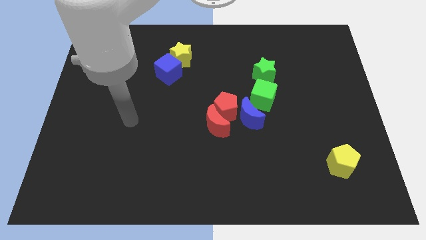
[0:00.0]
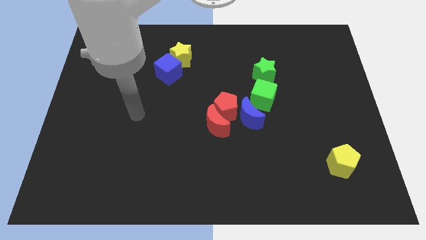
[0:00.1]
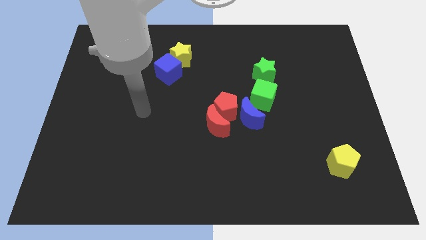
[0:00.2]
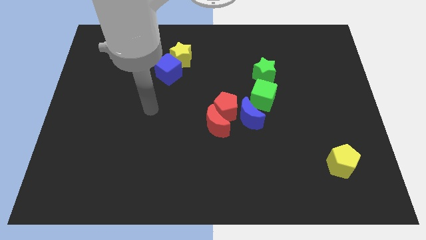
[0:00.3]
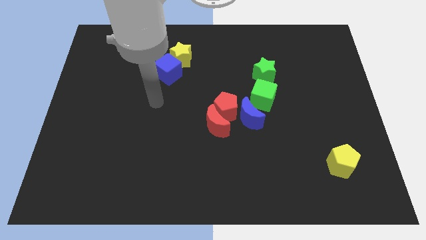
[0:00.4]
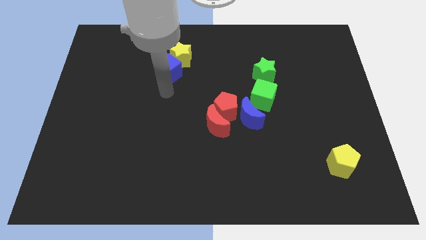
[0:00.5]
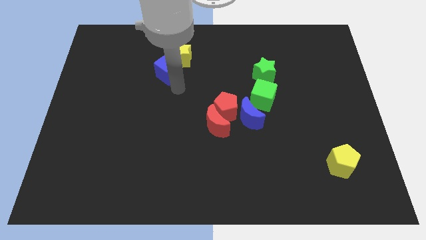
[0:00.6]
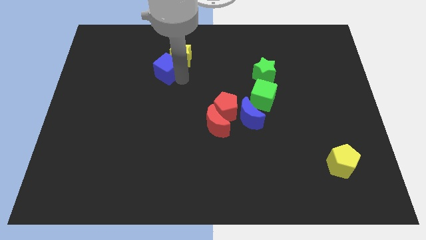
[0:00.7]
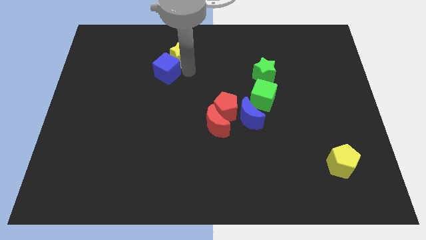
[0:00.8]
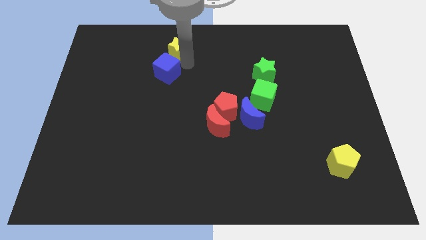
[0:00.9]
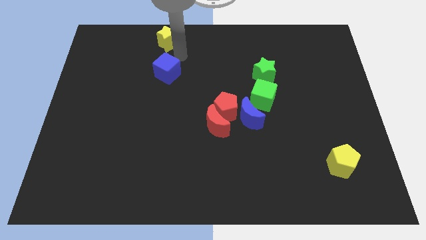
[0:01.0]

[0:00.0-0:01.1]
pull the blue cube apart from the yellow star

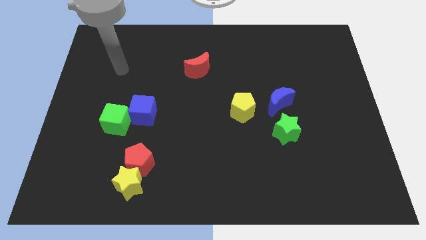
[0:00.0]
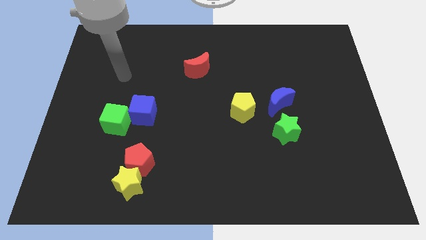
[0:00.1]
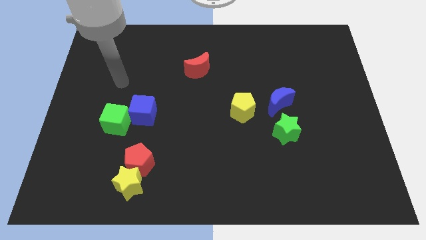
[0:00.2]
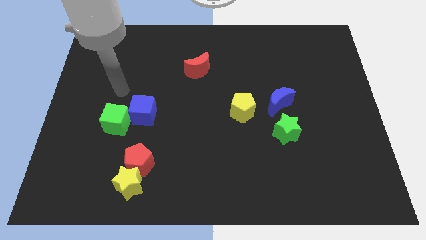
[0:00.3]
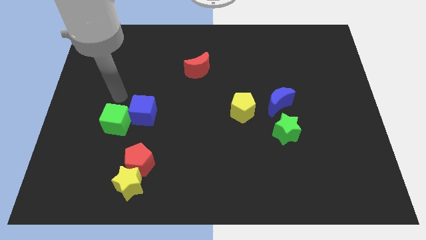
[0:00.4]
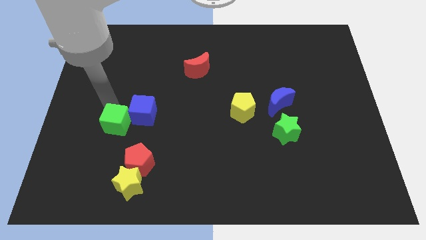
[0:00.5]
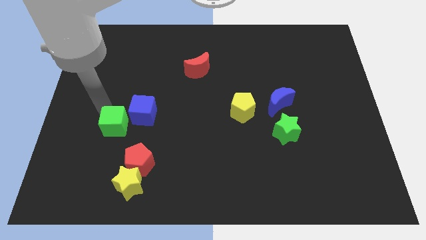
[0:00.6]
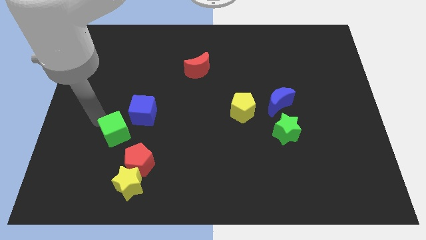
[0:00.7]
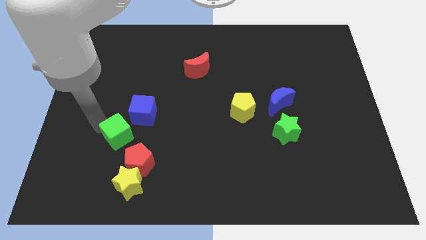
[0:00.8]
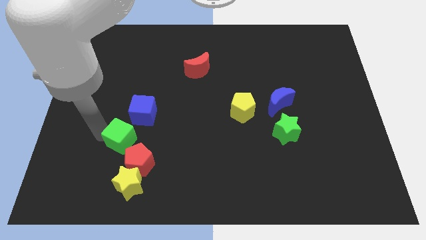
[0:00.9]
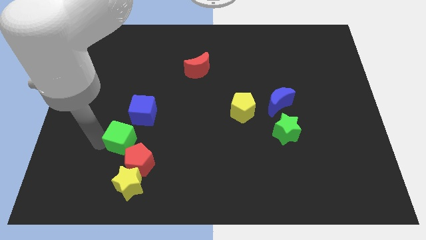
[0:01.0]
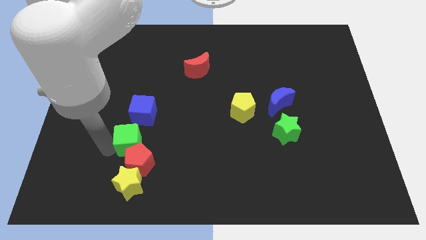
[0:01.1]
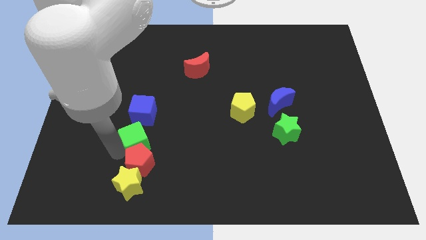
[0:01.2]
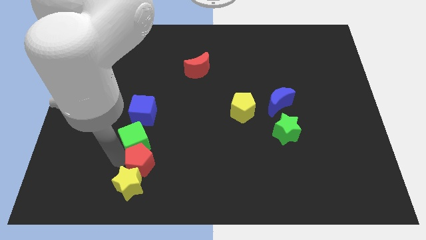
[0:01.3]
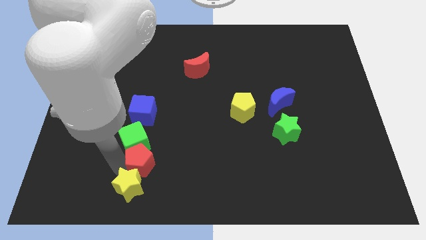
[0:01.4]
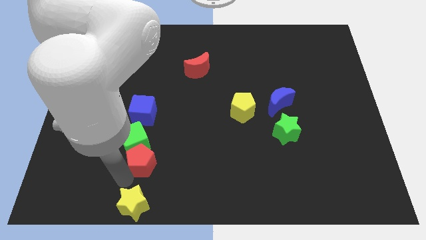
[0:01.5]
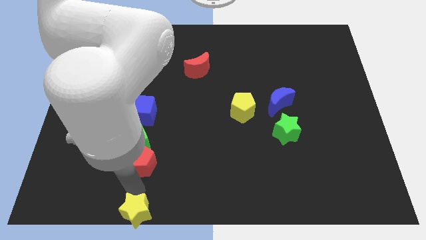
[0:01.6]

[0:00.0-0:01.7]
separate the red pentagon from the yellow star

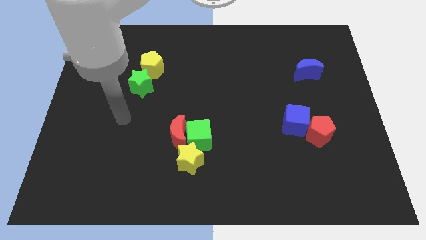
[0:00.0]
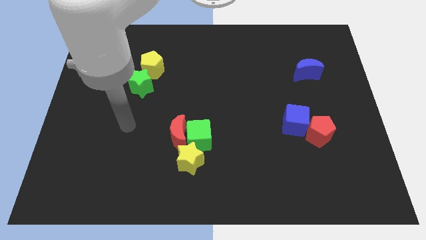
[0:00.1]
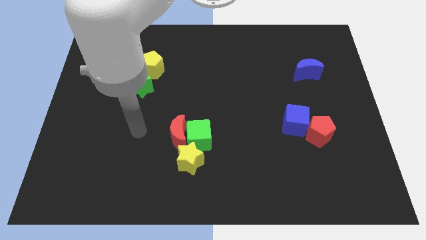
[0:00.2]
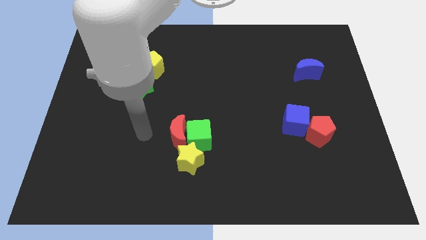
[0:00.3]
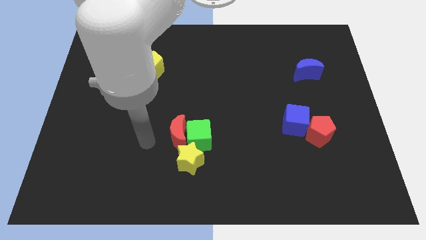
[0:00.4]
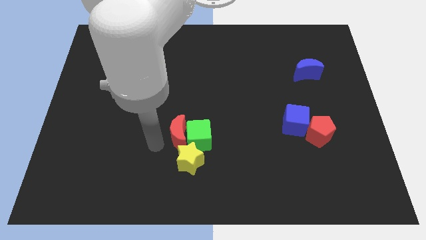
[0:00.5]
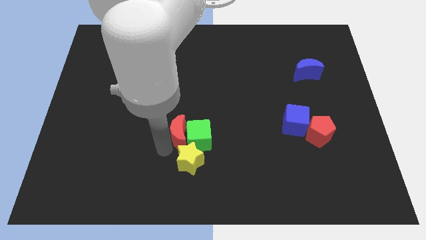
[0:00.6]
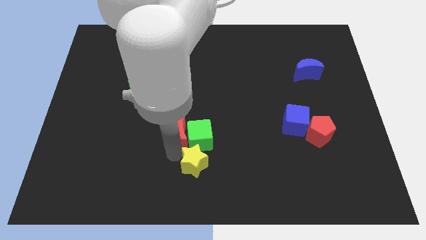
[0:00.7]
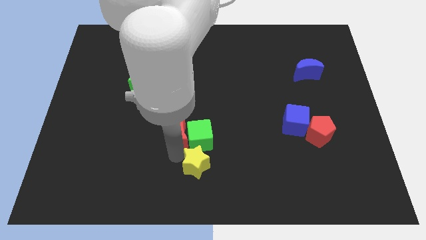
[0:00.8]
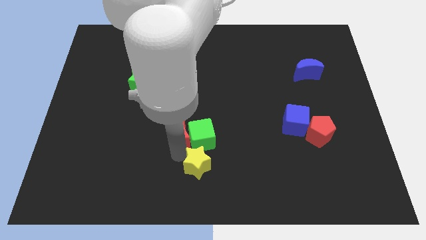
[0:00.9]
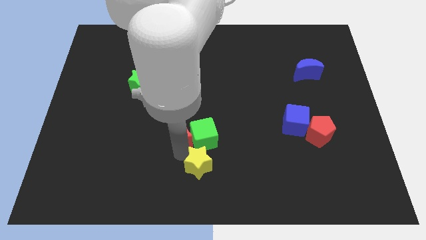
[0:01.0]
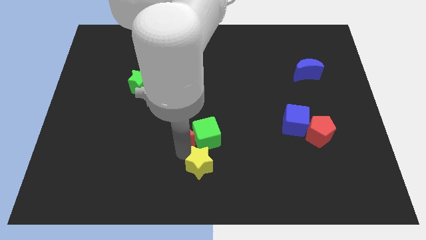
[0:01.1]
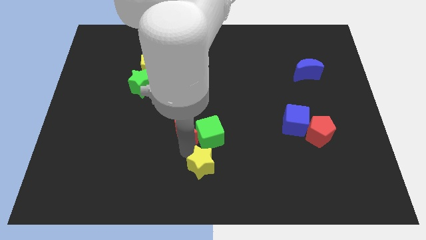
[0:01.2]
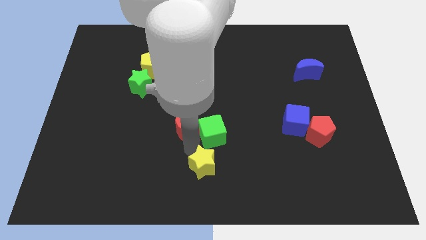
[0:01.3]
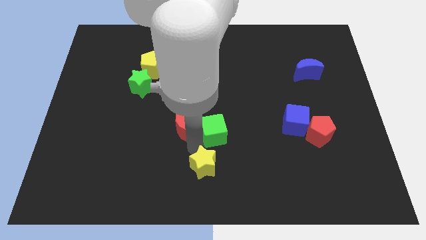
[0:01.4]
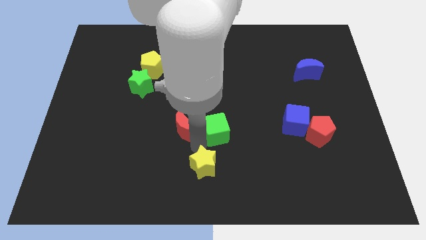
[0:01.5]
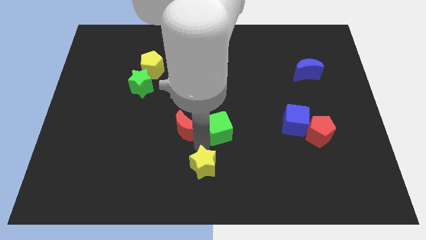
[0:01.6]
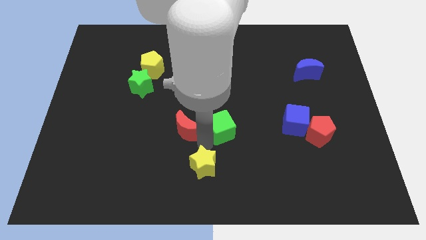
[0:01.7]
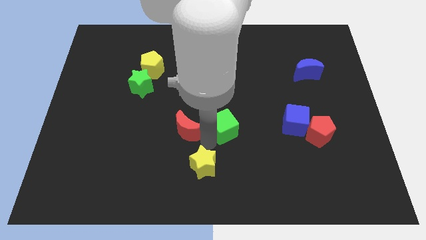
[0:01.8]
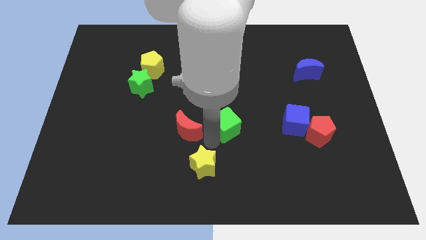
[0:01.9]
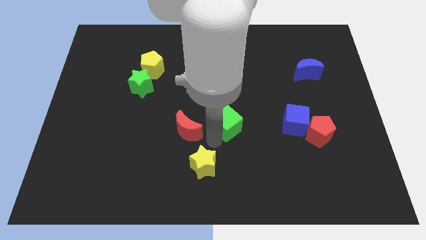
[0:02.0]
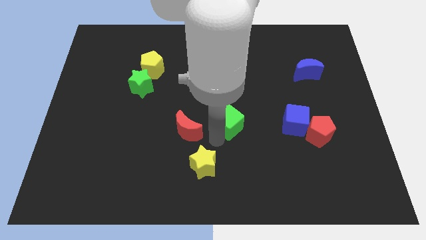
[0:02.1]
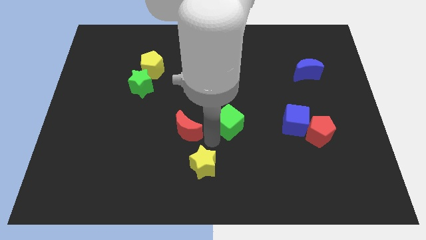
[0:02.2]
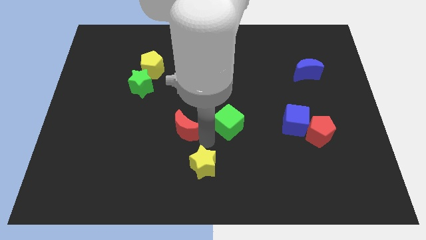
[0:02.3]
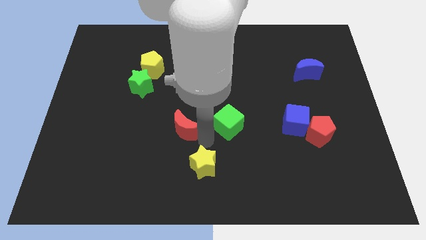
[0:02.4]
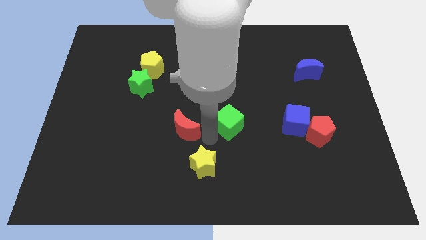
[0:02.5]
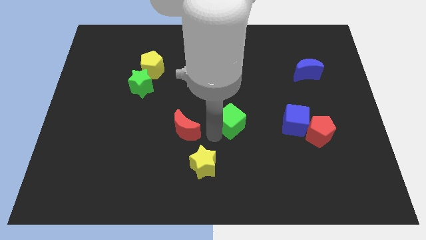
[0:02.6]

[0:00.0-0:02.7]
move the green cube away from the red moon and yellow star

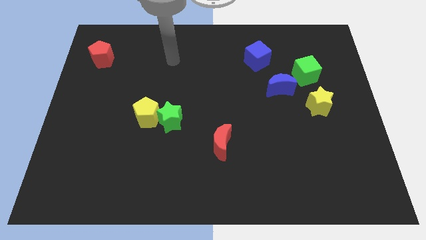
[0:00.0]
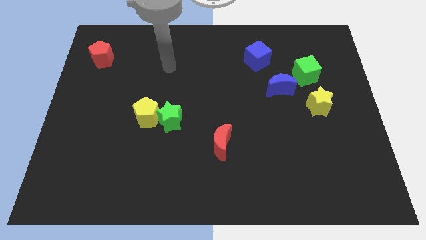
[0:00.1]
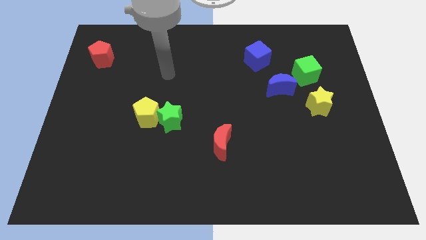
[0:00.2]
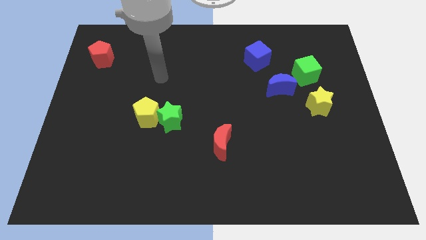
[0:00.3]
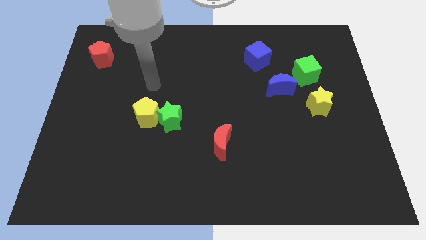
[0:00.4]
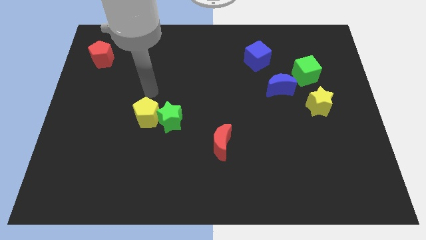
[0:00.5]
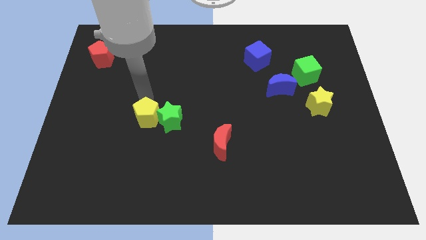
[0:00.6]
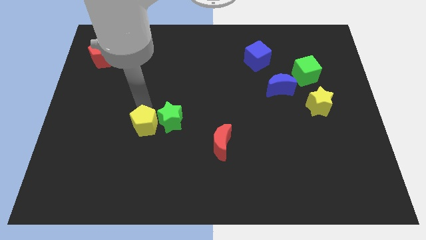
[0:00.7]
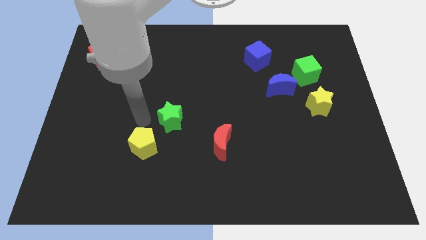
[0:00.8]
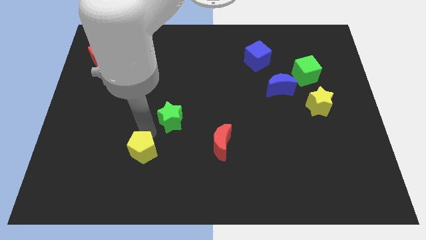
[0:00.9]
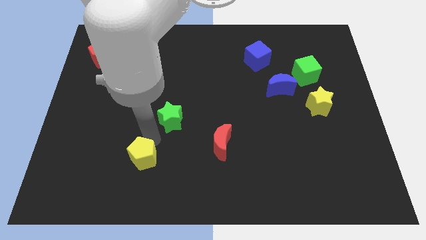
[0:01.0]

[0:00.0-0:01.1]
move the green star away from the yellow pentagon

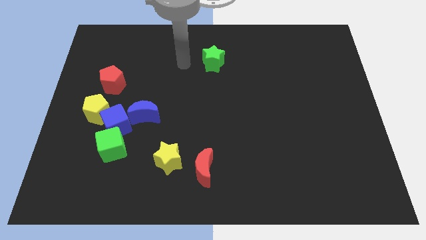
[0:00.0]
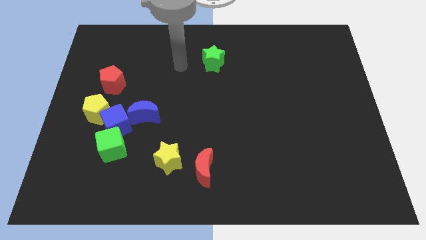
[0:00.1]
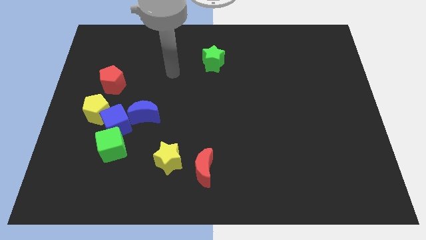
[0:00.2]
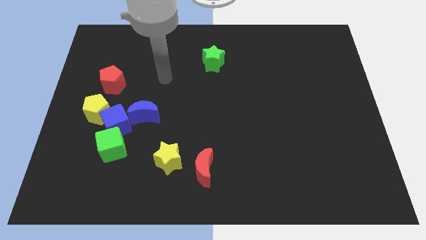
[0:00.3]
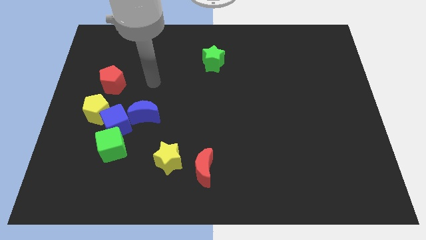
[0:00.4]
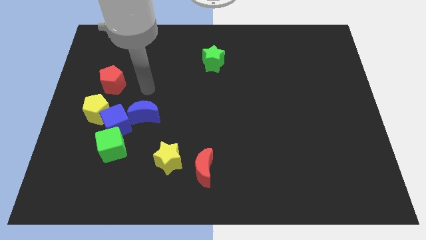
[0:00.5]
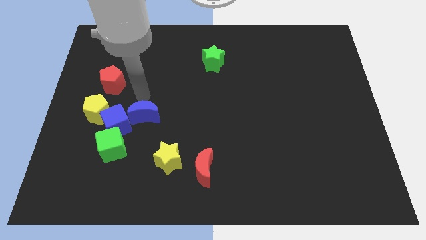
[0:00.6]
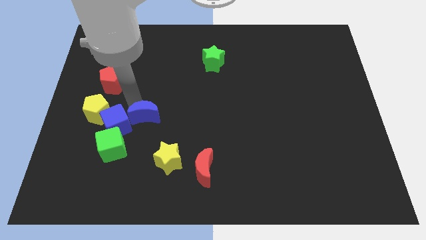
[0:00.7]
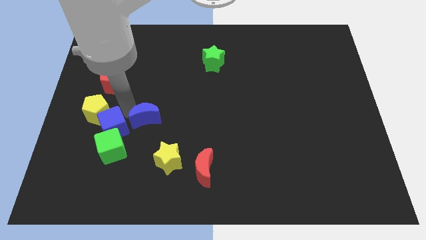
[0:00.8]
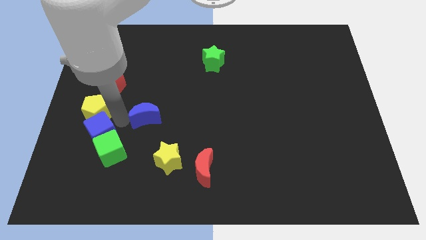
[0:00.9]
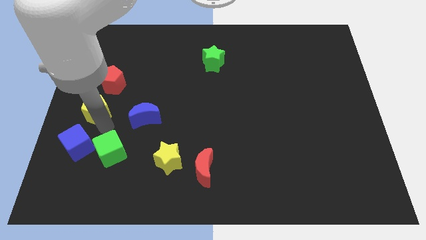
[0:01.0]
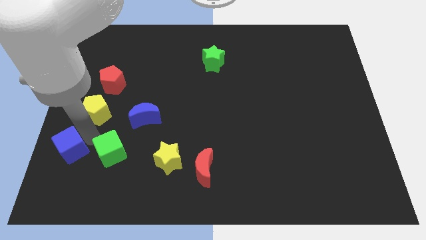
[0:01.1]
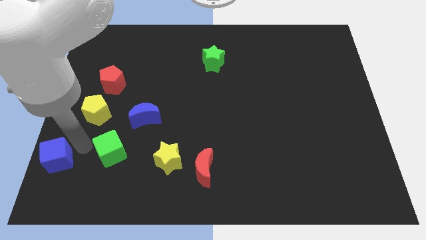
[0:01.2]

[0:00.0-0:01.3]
separate the green cube from the blue cube

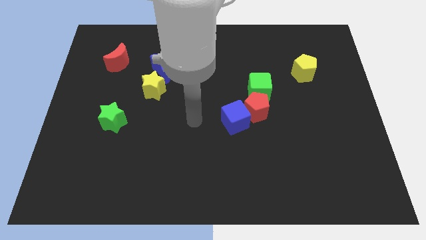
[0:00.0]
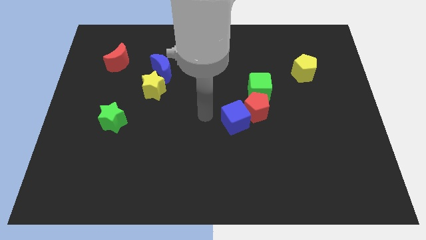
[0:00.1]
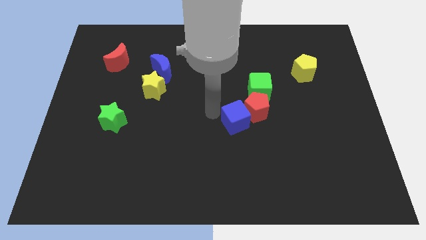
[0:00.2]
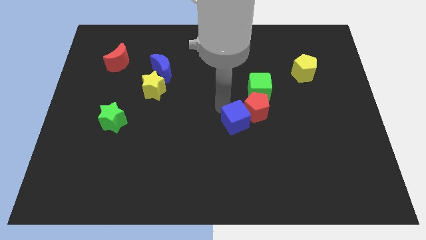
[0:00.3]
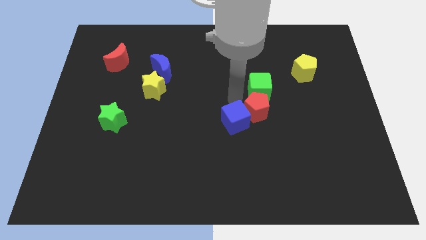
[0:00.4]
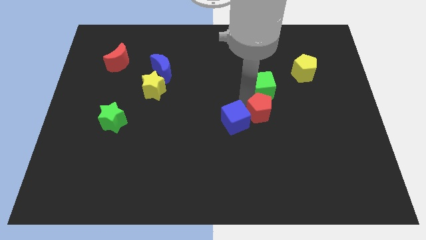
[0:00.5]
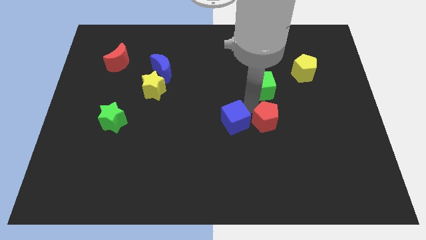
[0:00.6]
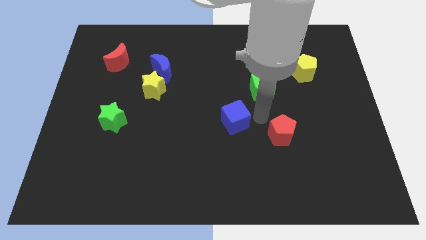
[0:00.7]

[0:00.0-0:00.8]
move the blue cube away from the red pentagon

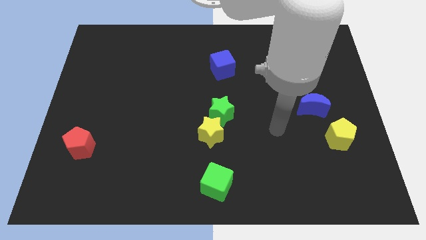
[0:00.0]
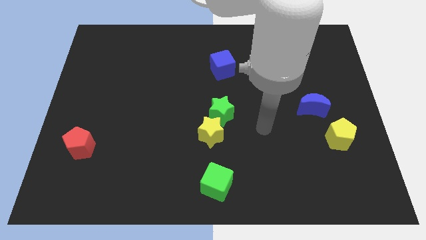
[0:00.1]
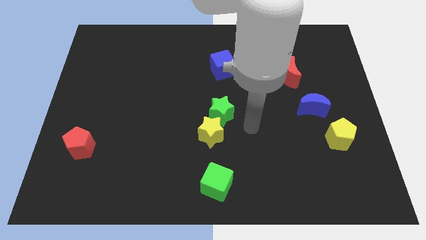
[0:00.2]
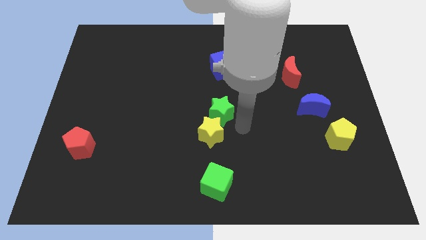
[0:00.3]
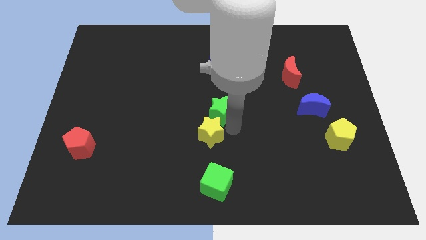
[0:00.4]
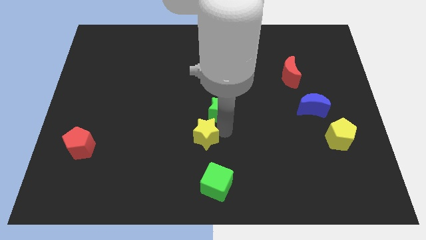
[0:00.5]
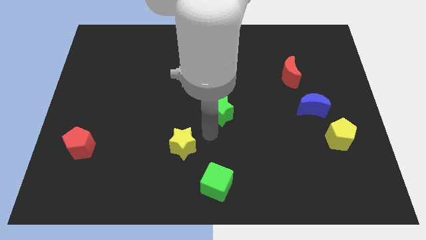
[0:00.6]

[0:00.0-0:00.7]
separate the green star from the yellow star

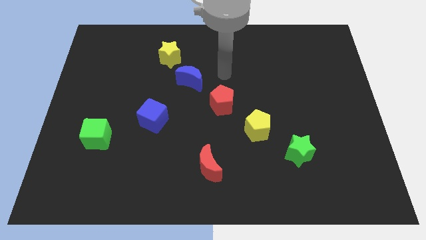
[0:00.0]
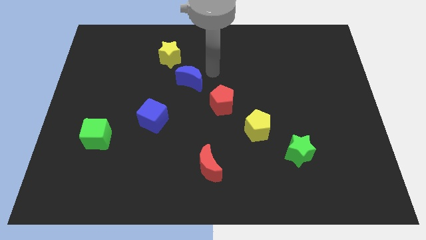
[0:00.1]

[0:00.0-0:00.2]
pull the blue moon apart from the yellow star
